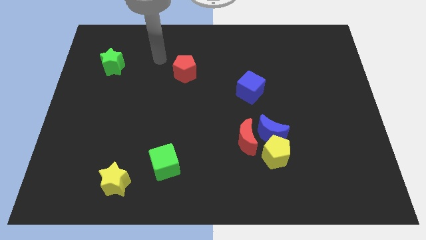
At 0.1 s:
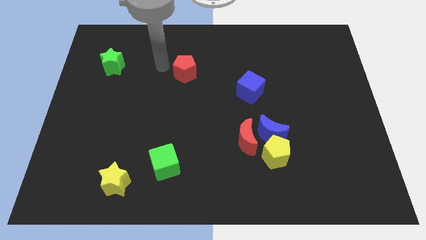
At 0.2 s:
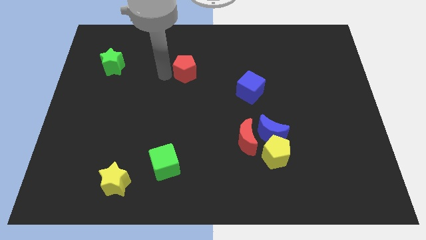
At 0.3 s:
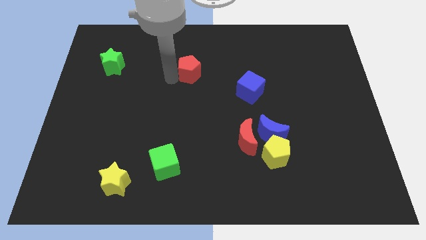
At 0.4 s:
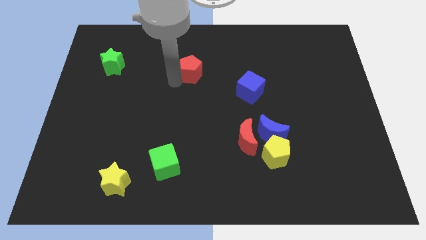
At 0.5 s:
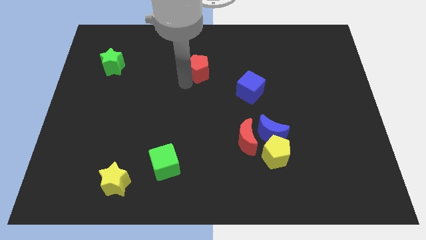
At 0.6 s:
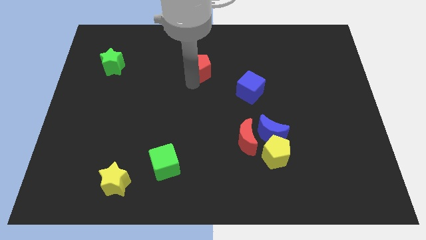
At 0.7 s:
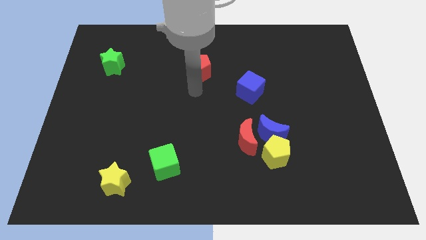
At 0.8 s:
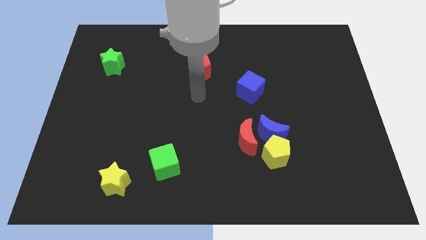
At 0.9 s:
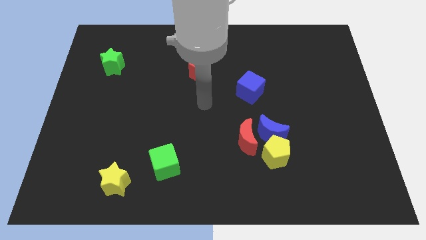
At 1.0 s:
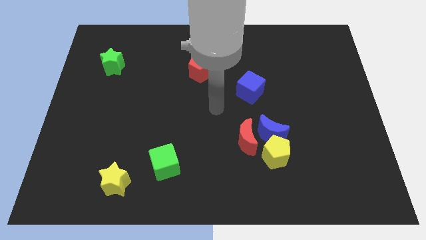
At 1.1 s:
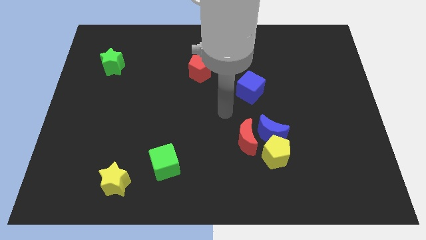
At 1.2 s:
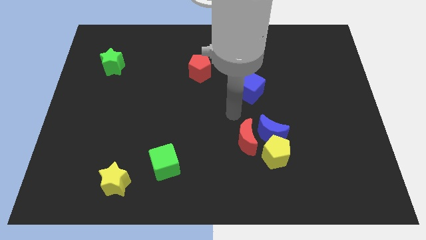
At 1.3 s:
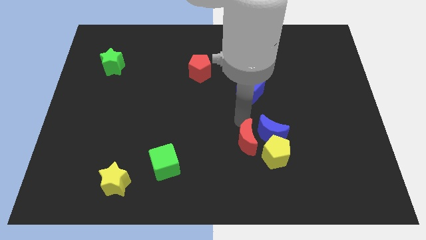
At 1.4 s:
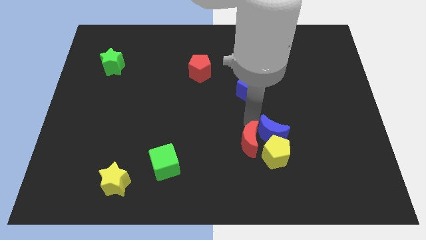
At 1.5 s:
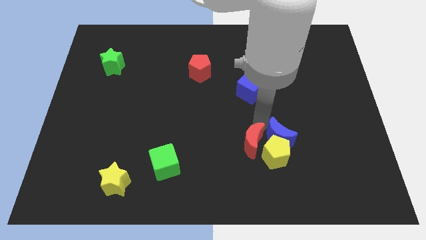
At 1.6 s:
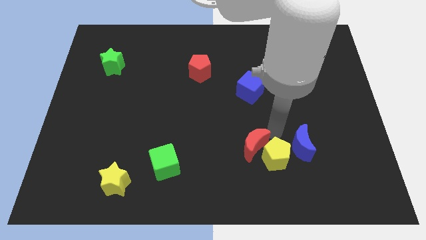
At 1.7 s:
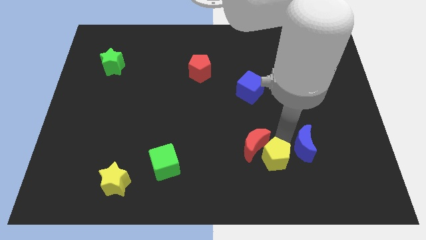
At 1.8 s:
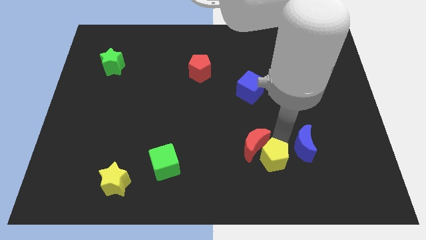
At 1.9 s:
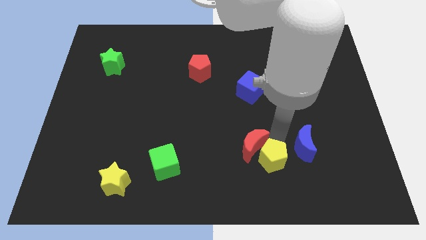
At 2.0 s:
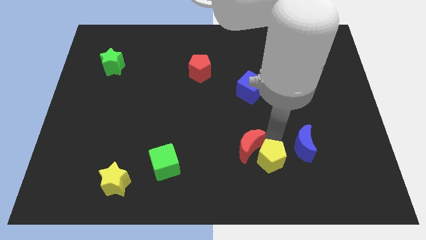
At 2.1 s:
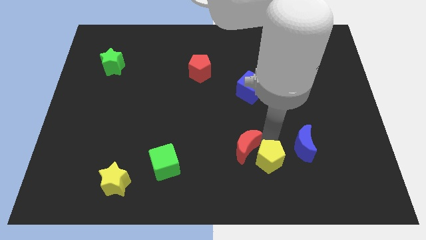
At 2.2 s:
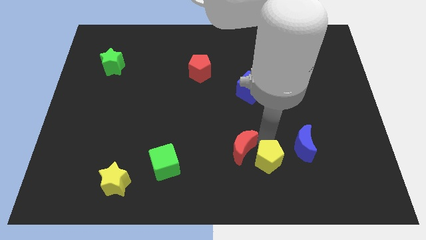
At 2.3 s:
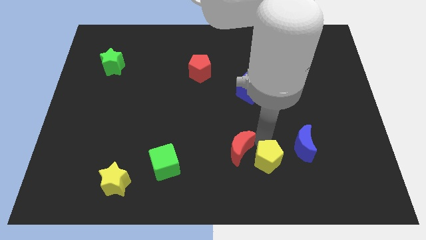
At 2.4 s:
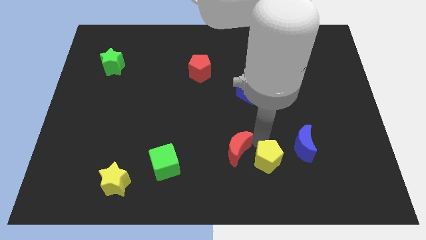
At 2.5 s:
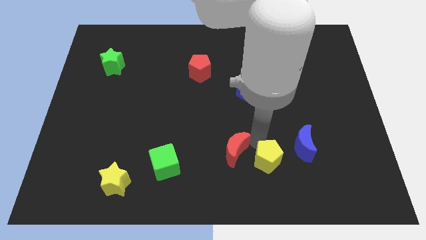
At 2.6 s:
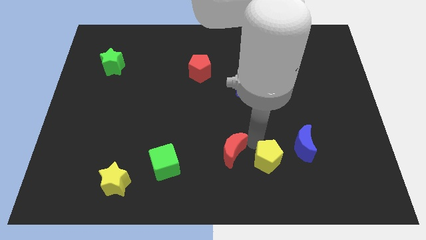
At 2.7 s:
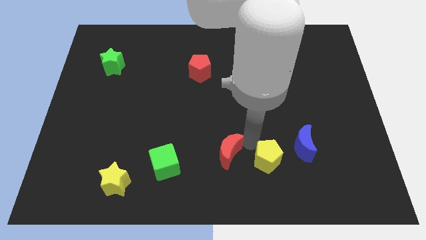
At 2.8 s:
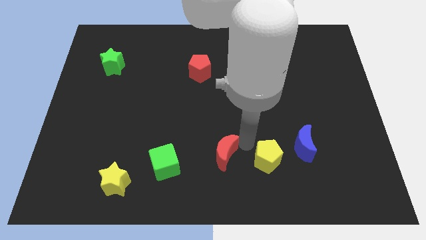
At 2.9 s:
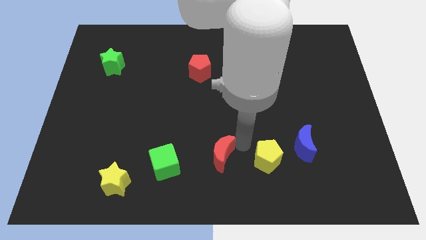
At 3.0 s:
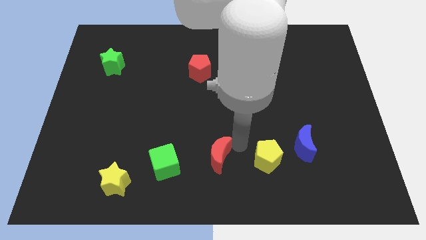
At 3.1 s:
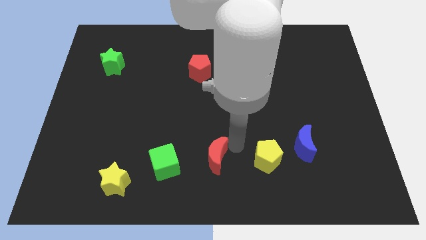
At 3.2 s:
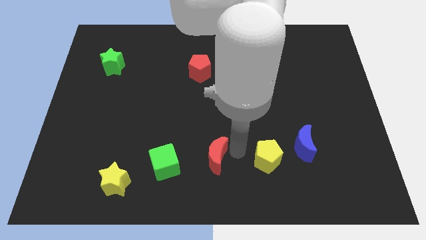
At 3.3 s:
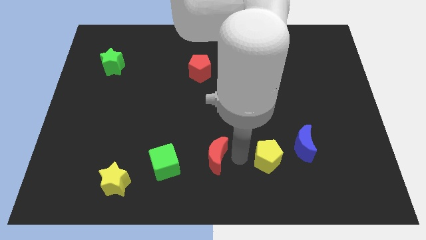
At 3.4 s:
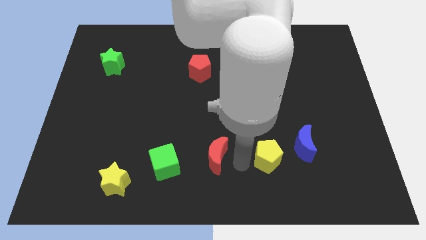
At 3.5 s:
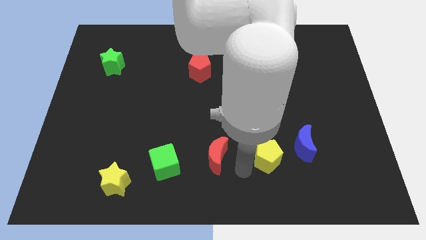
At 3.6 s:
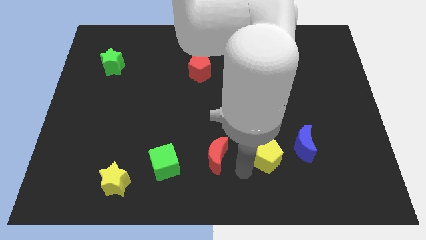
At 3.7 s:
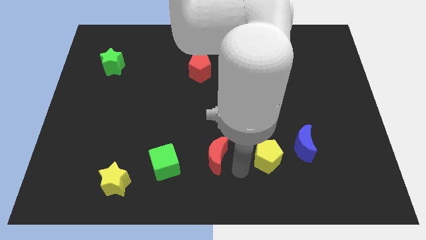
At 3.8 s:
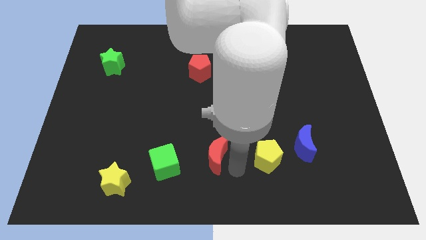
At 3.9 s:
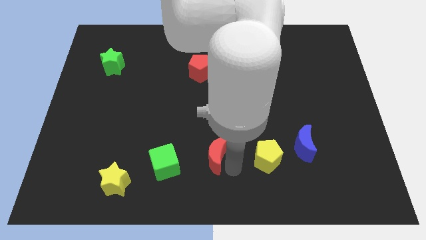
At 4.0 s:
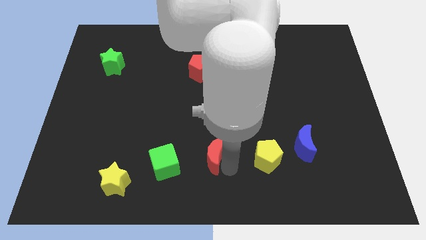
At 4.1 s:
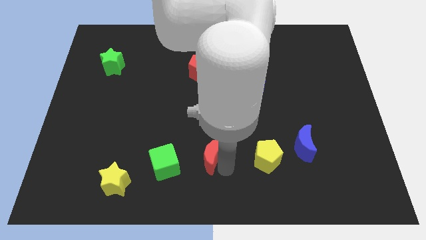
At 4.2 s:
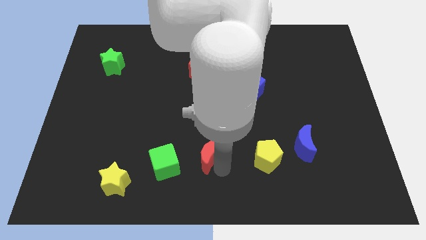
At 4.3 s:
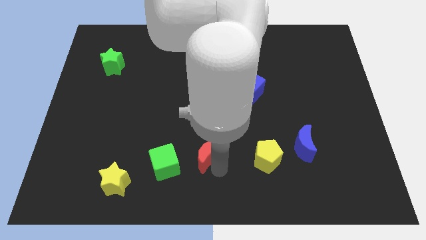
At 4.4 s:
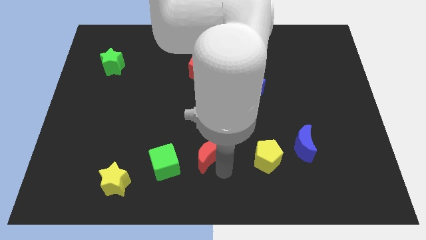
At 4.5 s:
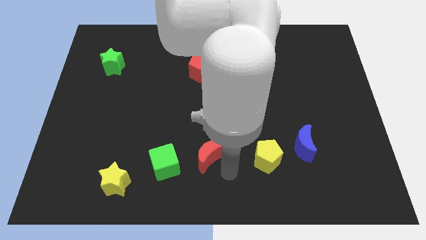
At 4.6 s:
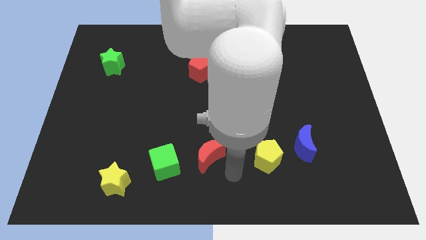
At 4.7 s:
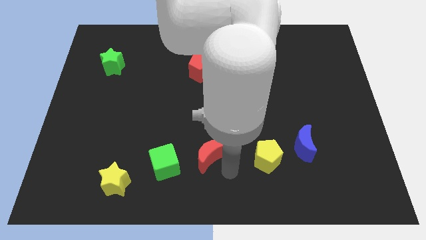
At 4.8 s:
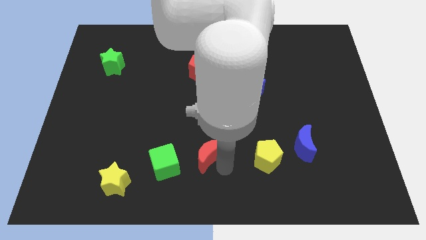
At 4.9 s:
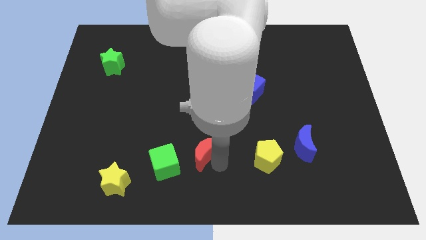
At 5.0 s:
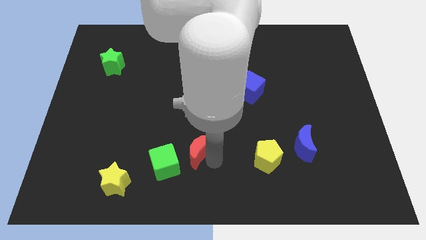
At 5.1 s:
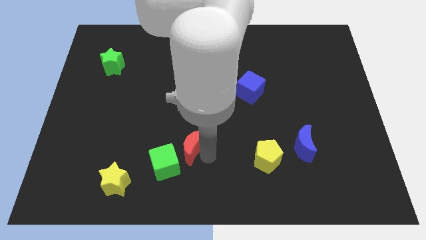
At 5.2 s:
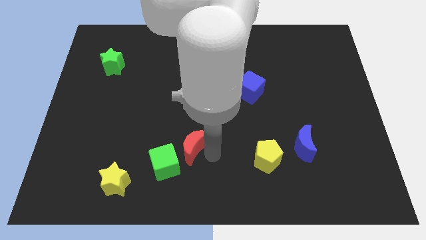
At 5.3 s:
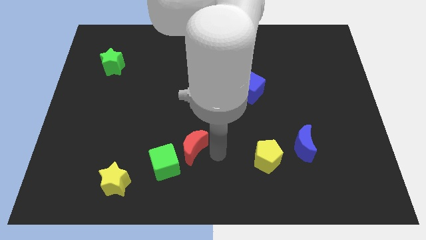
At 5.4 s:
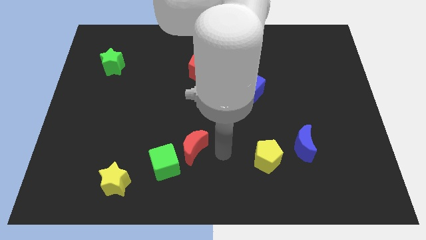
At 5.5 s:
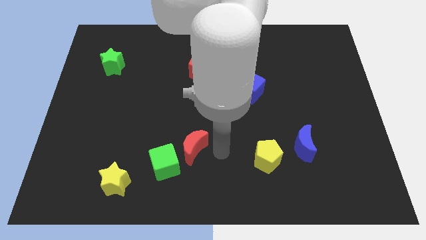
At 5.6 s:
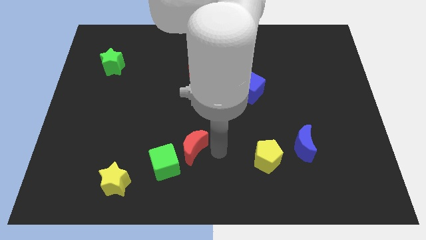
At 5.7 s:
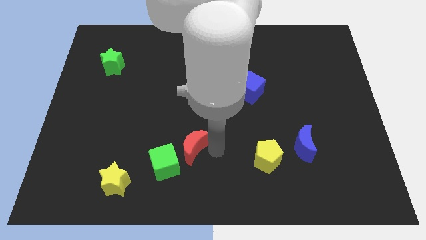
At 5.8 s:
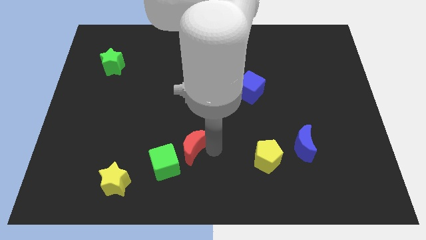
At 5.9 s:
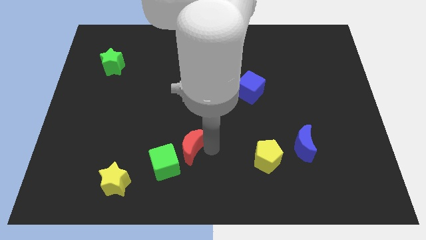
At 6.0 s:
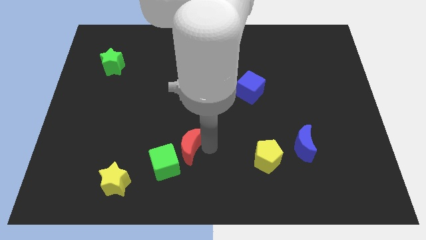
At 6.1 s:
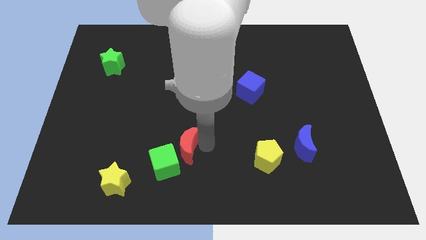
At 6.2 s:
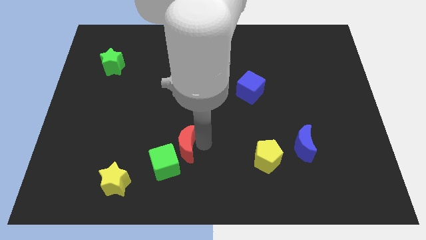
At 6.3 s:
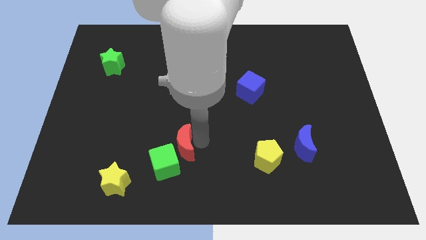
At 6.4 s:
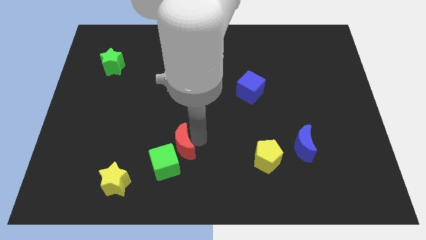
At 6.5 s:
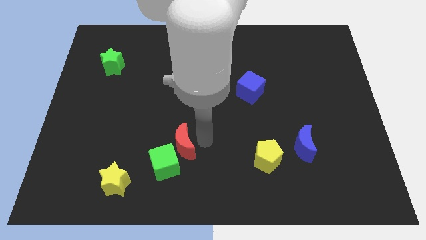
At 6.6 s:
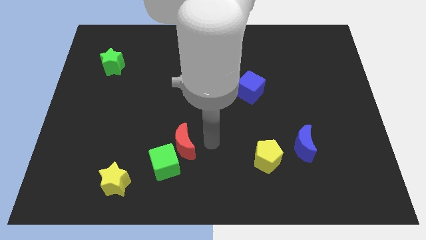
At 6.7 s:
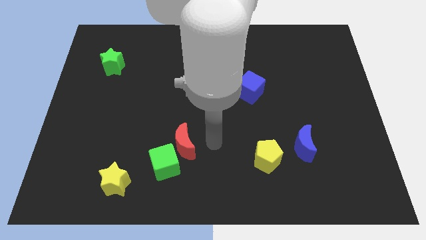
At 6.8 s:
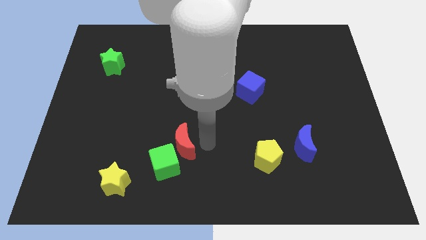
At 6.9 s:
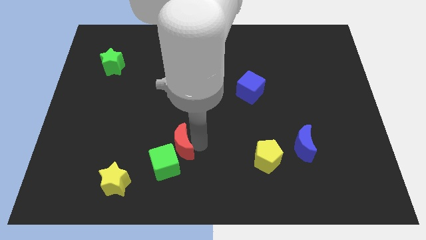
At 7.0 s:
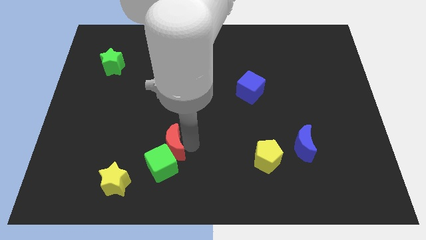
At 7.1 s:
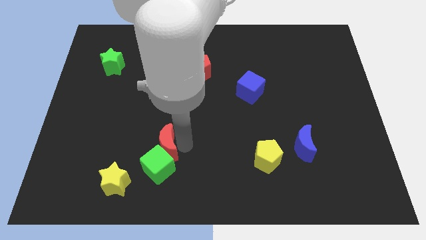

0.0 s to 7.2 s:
put the red moon diagonally up and to the right of the yellow star

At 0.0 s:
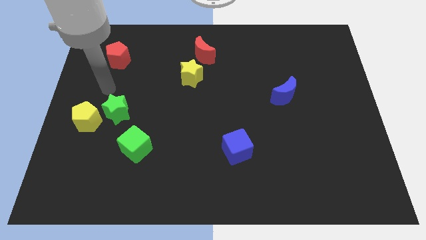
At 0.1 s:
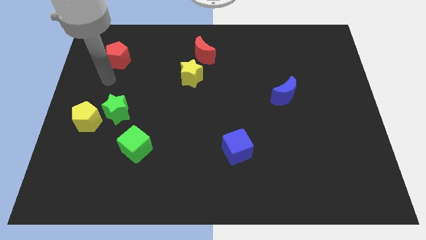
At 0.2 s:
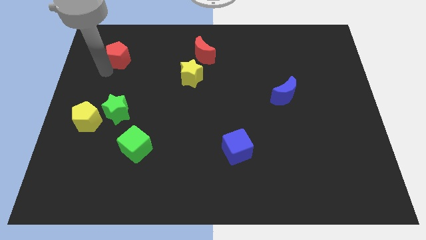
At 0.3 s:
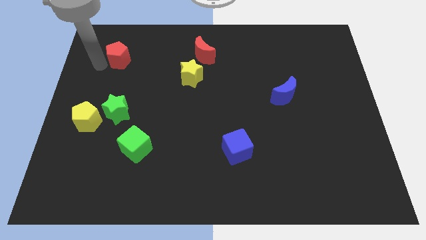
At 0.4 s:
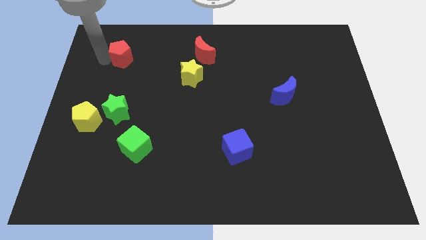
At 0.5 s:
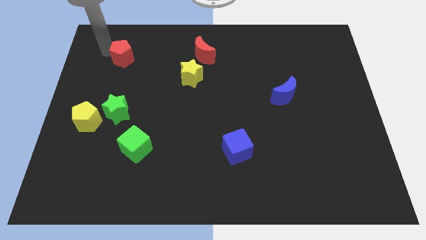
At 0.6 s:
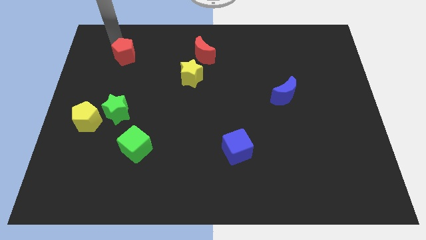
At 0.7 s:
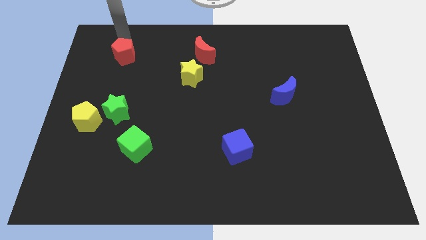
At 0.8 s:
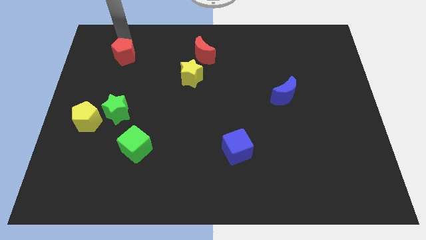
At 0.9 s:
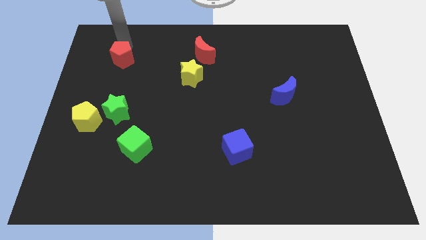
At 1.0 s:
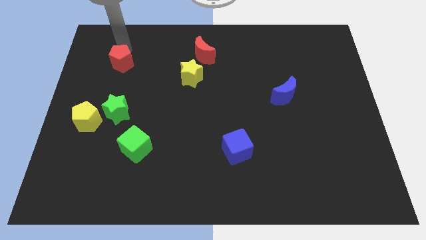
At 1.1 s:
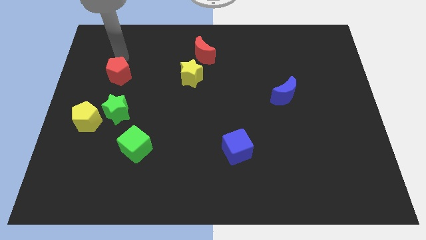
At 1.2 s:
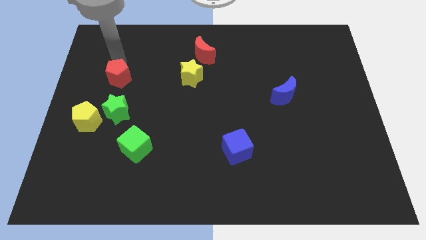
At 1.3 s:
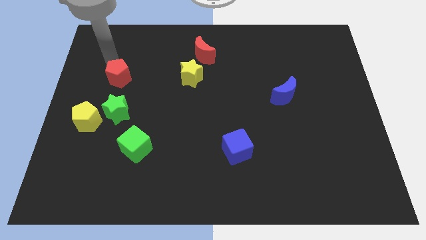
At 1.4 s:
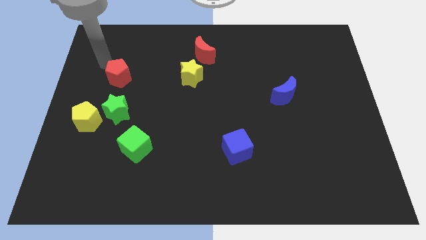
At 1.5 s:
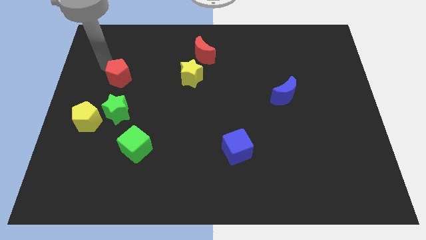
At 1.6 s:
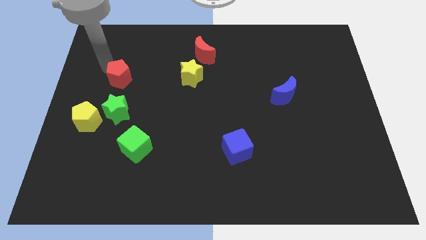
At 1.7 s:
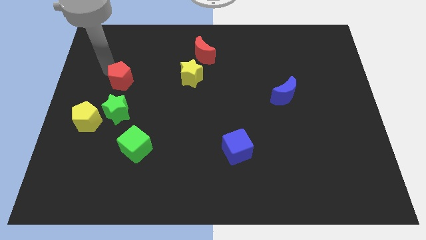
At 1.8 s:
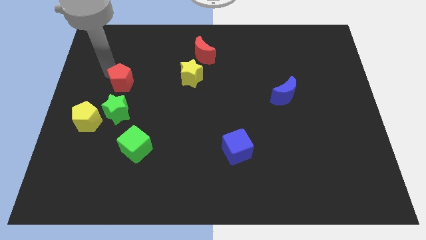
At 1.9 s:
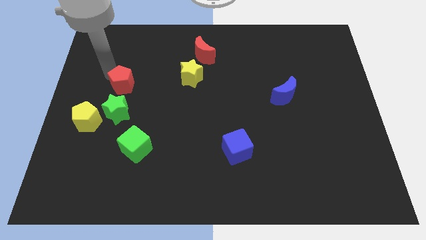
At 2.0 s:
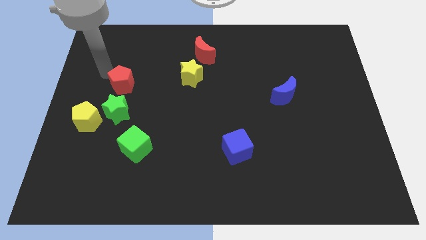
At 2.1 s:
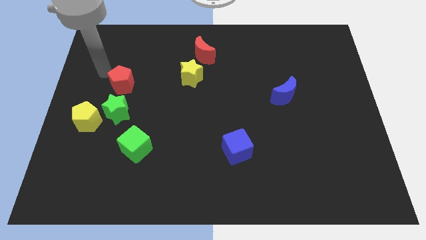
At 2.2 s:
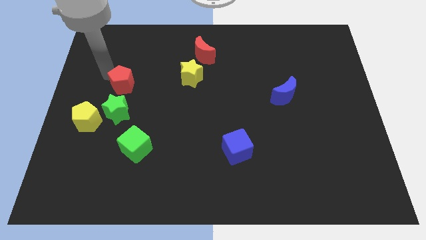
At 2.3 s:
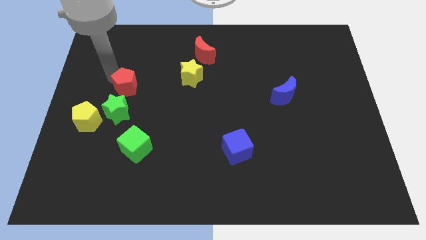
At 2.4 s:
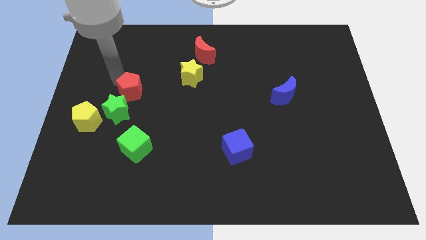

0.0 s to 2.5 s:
push the red pentagon to the top right of the green star
